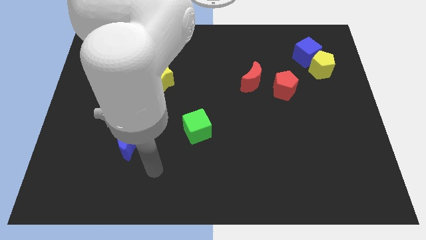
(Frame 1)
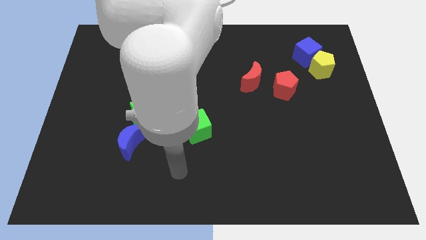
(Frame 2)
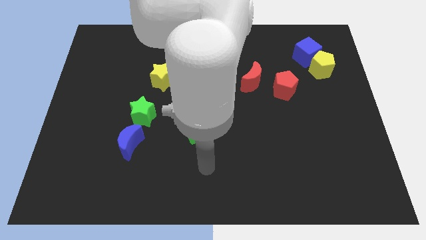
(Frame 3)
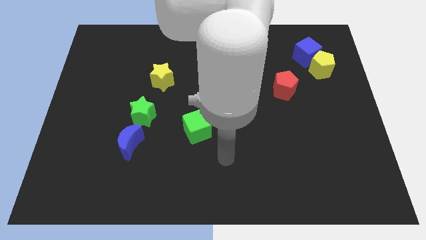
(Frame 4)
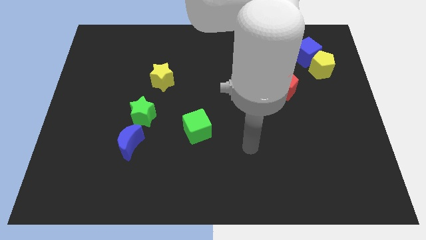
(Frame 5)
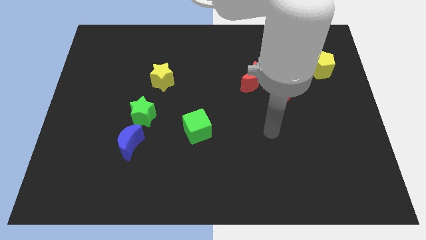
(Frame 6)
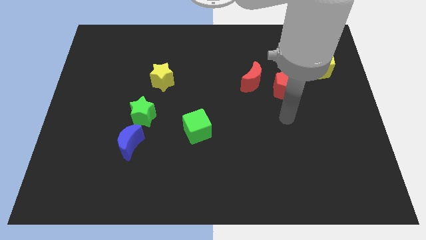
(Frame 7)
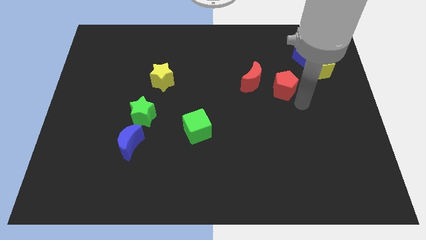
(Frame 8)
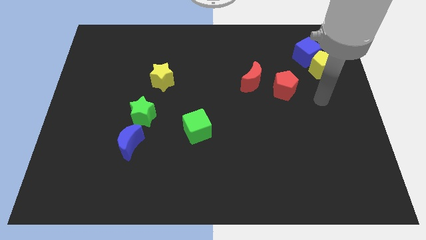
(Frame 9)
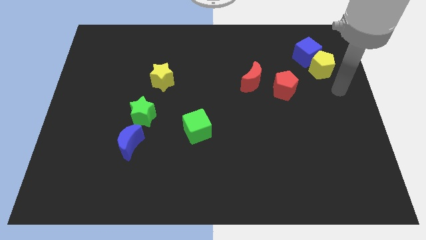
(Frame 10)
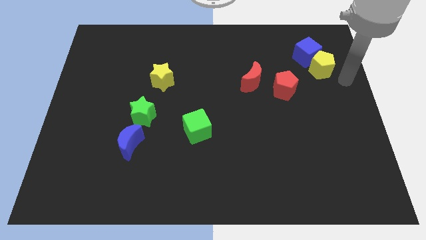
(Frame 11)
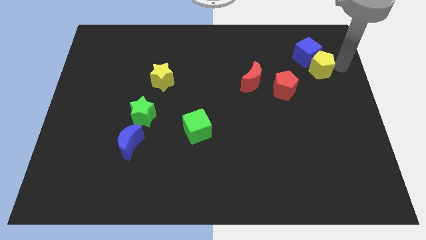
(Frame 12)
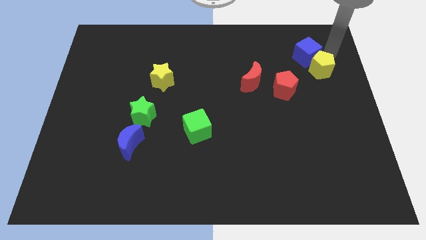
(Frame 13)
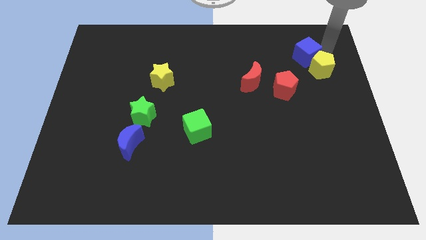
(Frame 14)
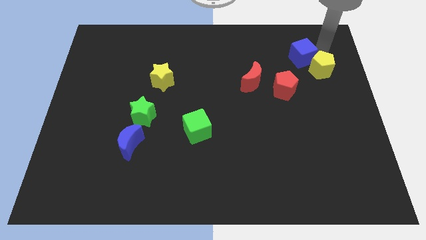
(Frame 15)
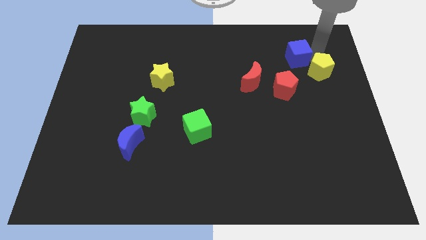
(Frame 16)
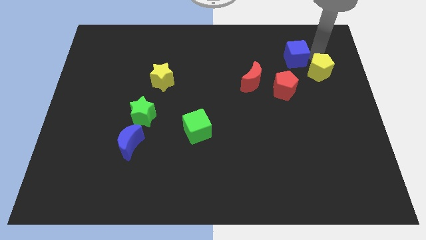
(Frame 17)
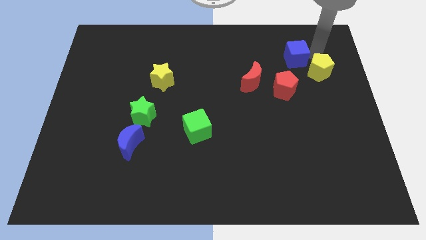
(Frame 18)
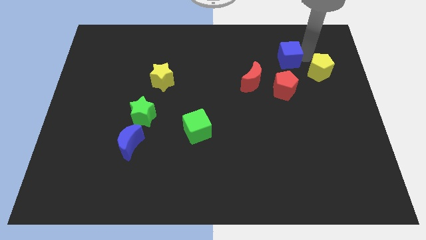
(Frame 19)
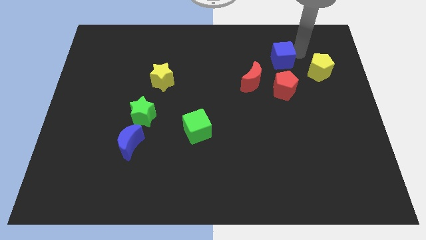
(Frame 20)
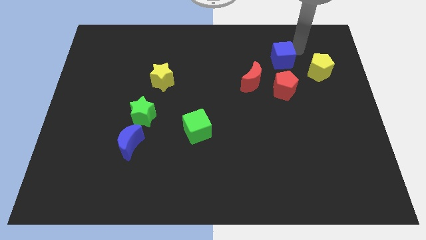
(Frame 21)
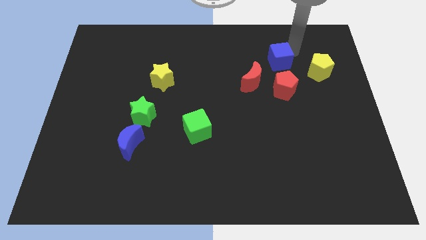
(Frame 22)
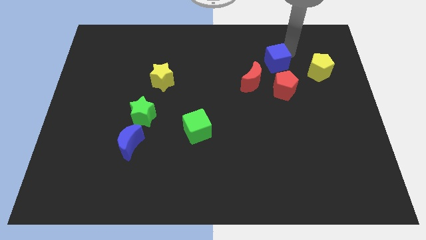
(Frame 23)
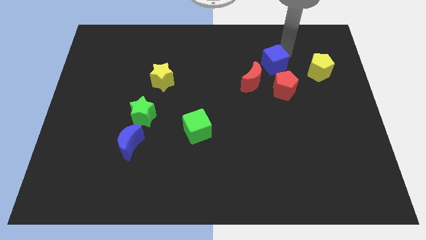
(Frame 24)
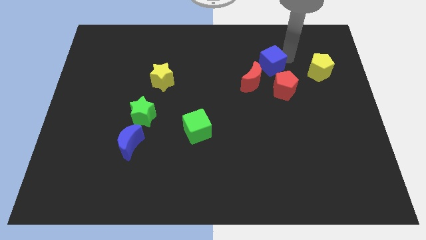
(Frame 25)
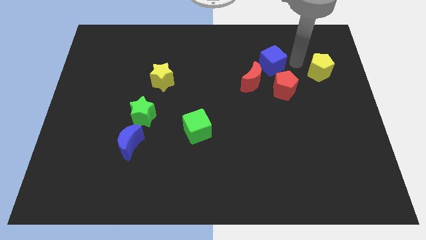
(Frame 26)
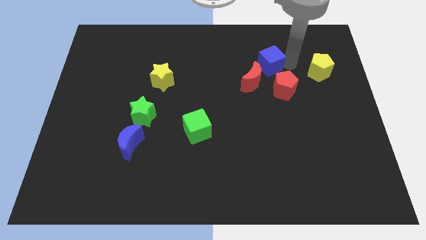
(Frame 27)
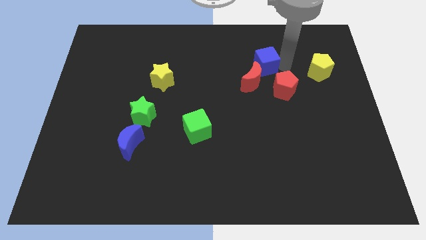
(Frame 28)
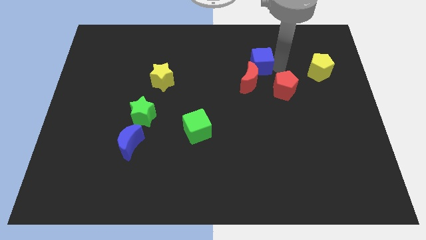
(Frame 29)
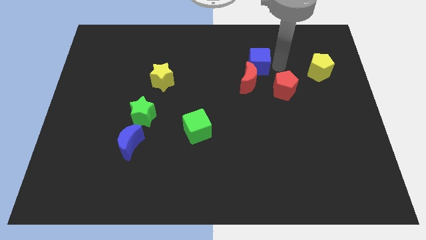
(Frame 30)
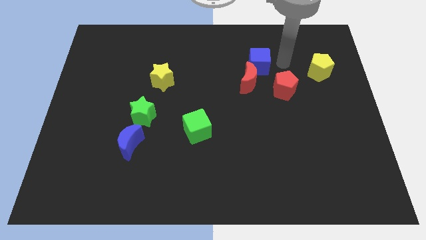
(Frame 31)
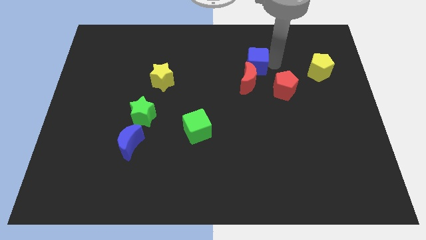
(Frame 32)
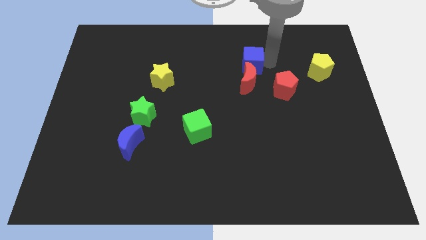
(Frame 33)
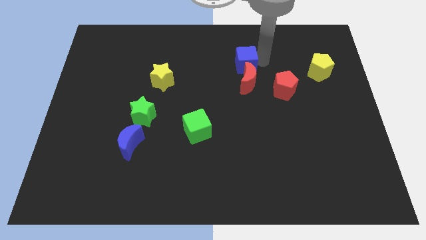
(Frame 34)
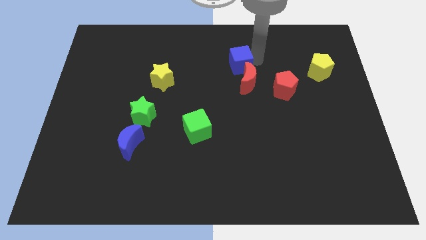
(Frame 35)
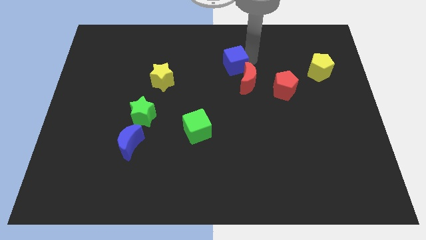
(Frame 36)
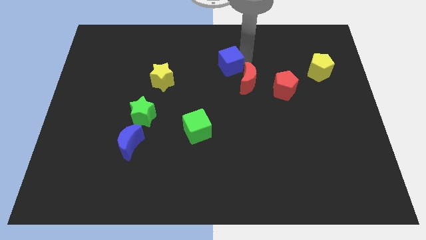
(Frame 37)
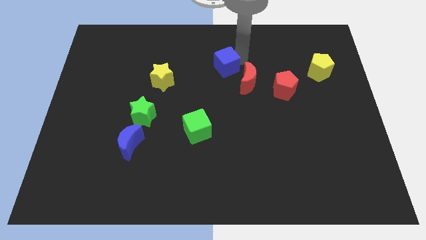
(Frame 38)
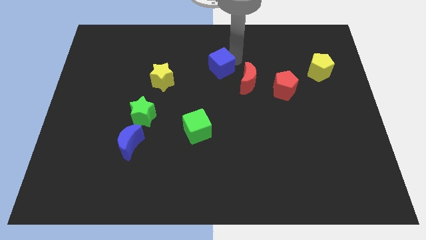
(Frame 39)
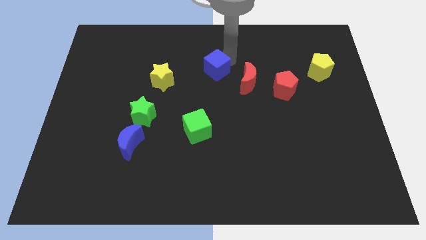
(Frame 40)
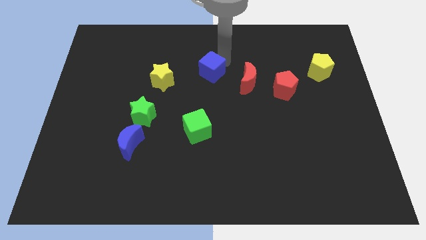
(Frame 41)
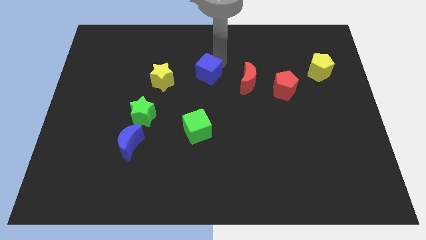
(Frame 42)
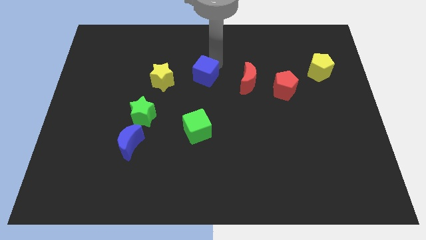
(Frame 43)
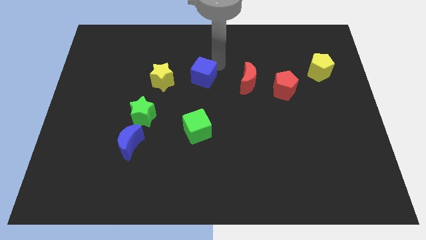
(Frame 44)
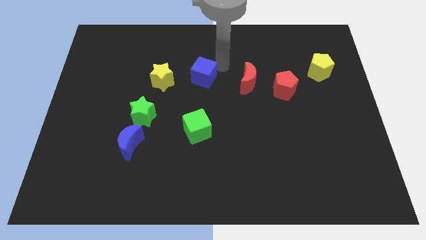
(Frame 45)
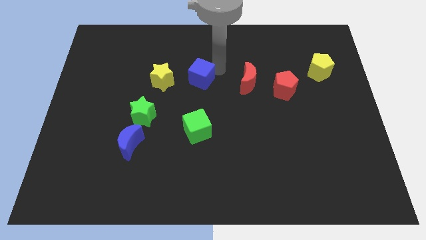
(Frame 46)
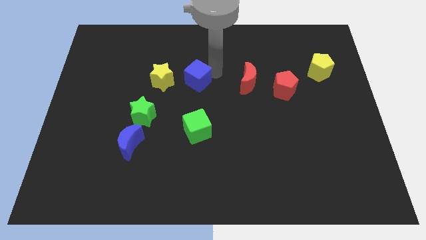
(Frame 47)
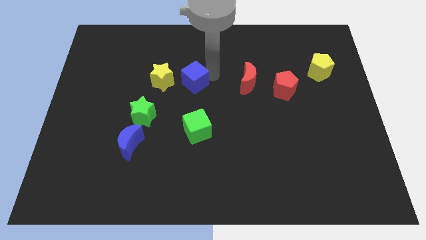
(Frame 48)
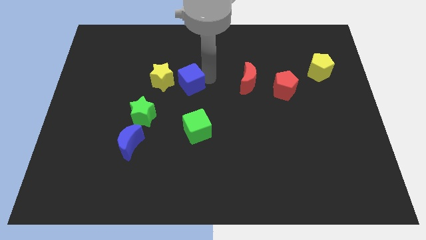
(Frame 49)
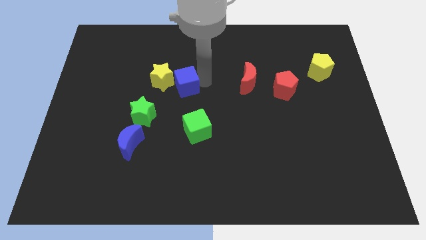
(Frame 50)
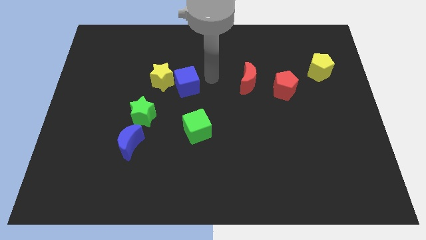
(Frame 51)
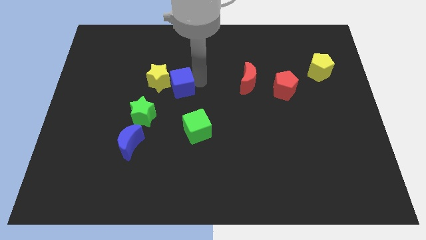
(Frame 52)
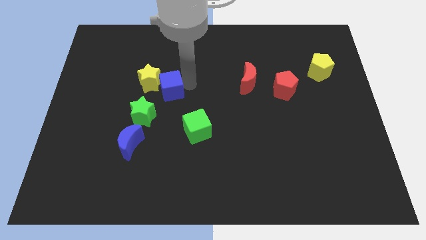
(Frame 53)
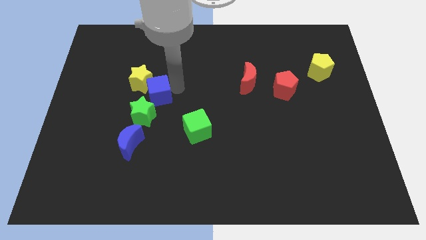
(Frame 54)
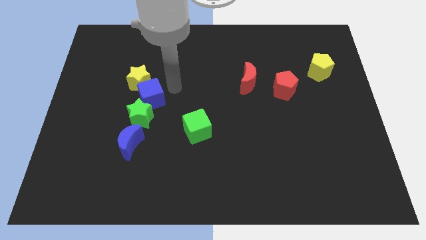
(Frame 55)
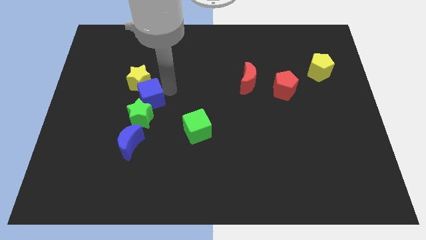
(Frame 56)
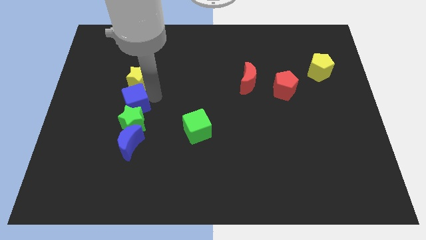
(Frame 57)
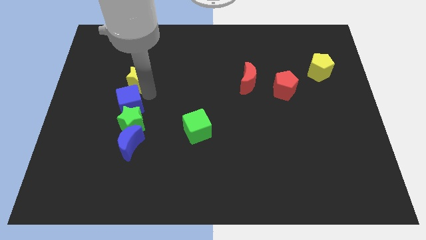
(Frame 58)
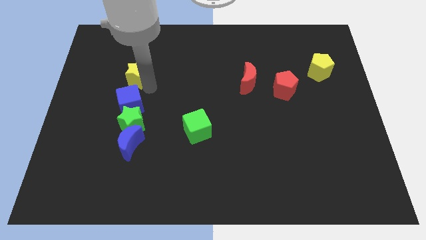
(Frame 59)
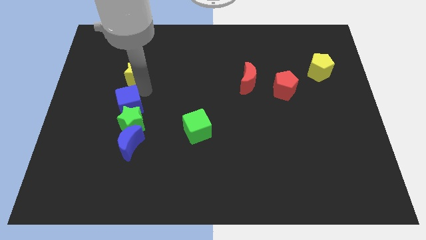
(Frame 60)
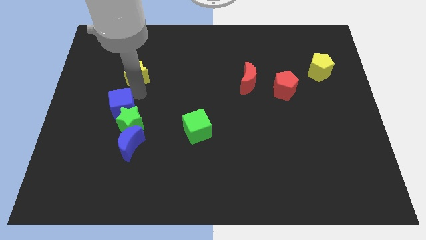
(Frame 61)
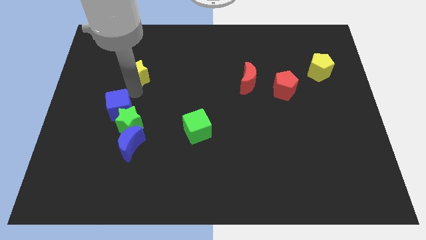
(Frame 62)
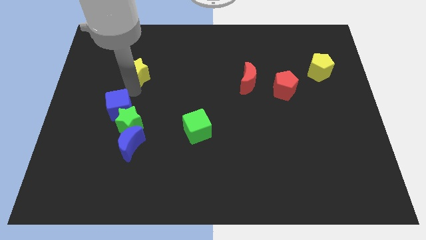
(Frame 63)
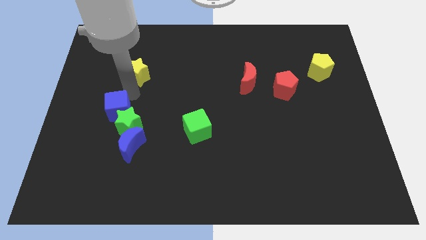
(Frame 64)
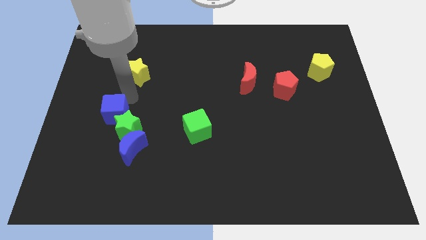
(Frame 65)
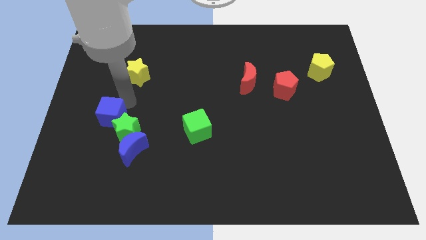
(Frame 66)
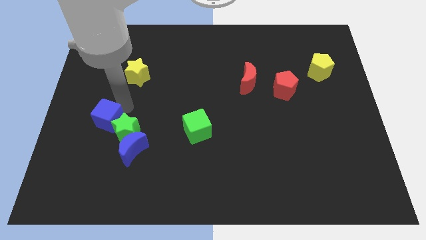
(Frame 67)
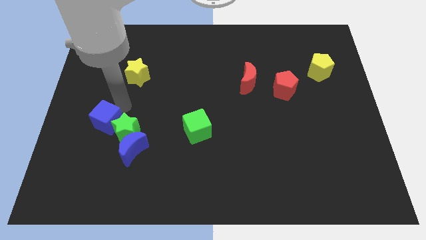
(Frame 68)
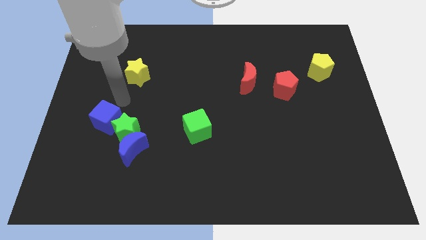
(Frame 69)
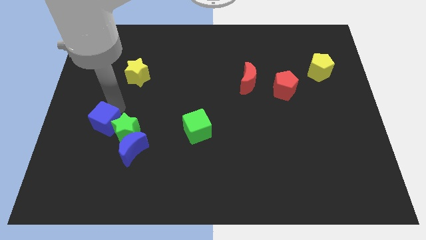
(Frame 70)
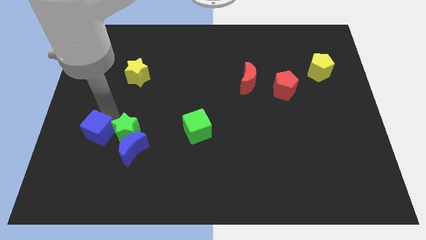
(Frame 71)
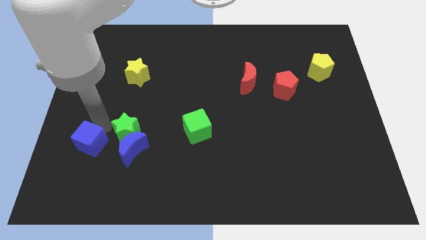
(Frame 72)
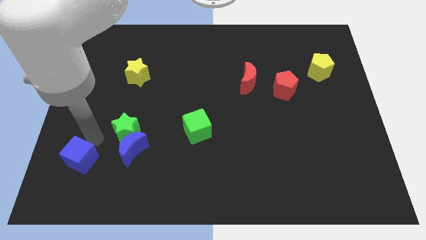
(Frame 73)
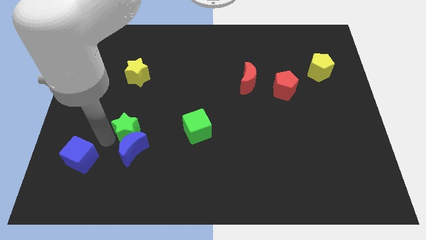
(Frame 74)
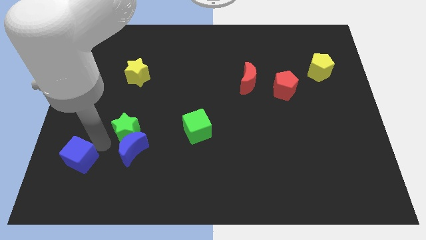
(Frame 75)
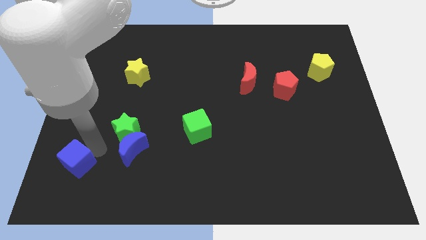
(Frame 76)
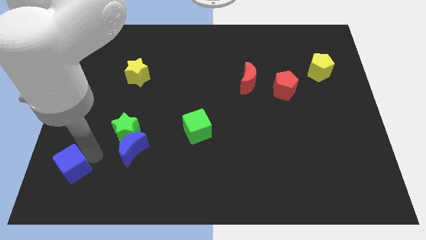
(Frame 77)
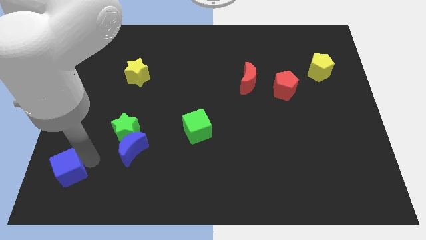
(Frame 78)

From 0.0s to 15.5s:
move the blue cube to the bottom left
